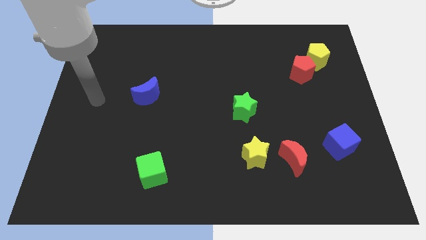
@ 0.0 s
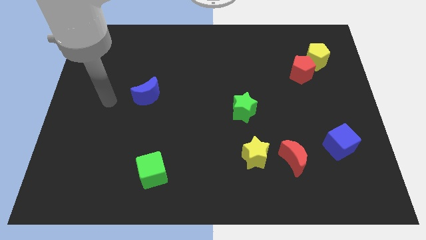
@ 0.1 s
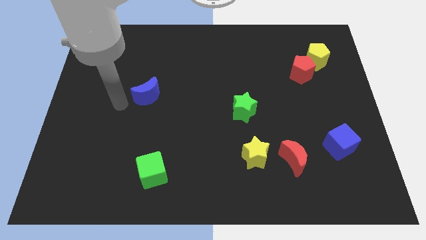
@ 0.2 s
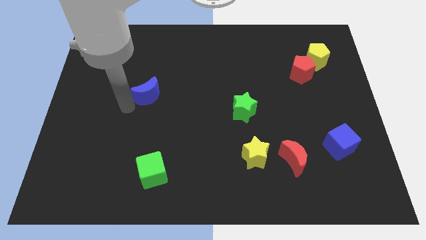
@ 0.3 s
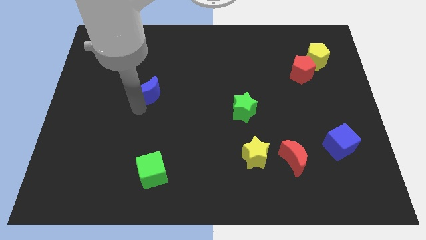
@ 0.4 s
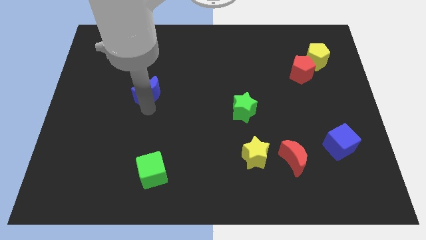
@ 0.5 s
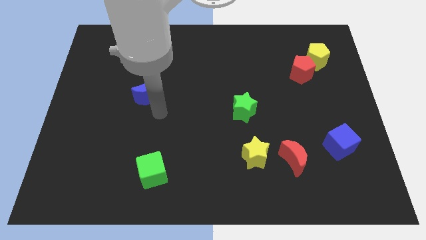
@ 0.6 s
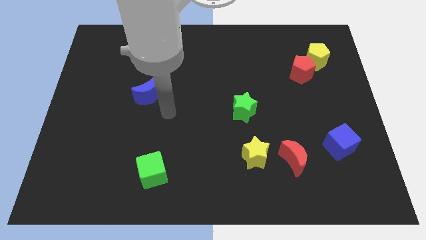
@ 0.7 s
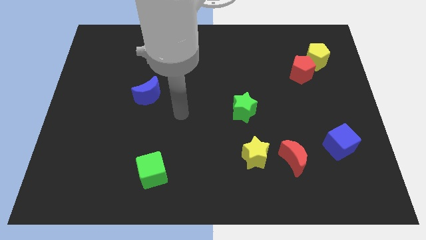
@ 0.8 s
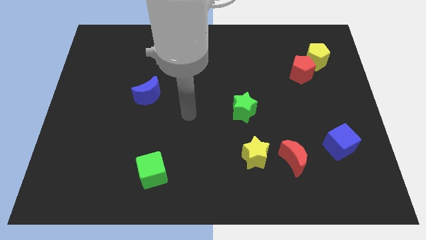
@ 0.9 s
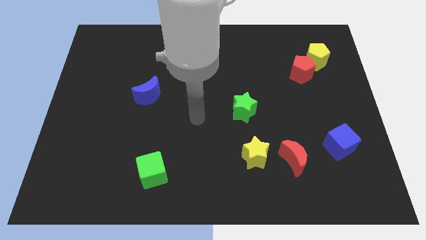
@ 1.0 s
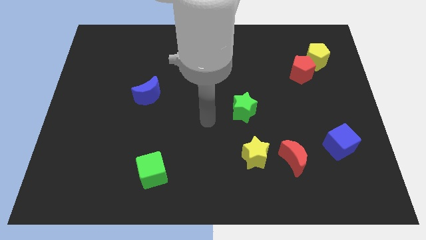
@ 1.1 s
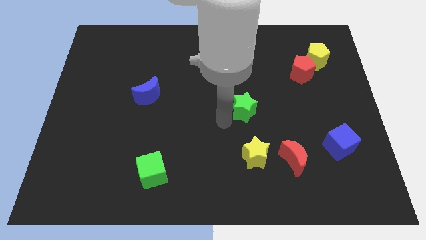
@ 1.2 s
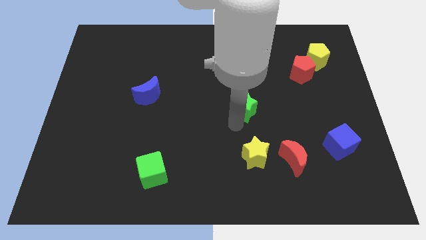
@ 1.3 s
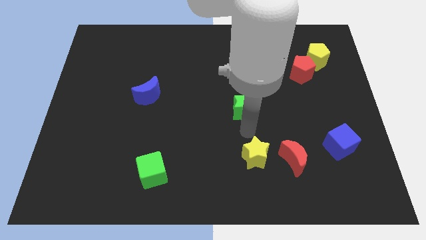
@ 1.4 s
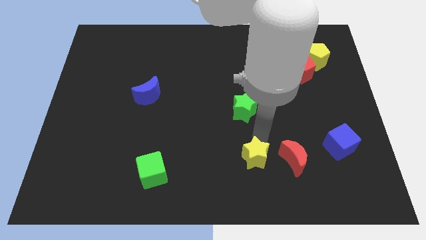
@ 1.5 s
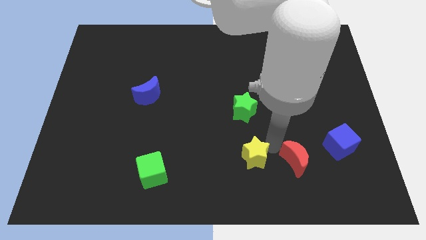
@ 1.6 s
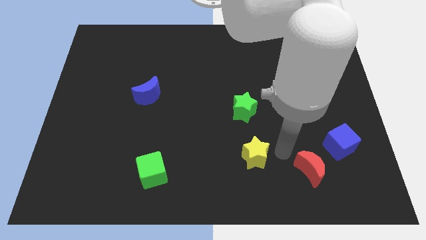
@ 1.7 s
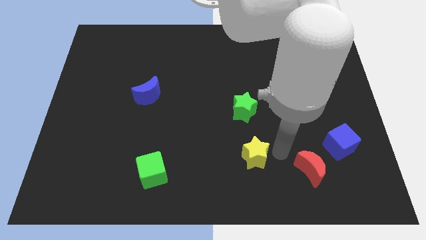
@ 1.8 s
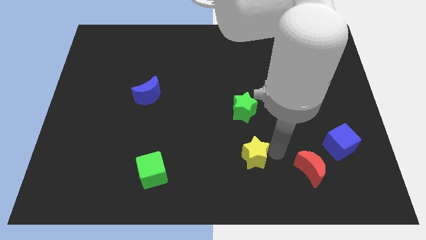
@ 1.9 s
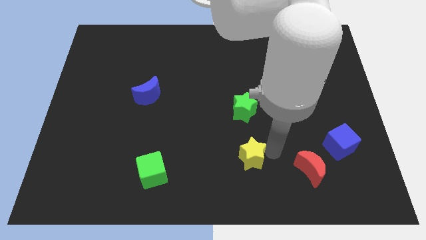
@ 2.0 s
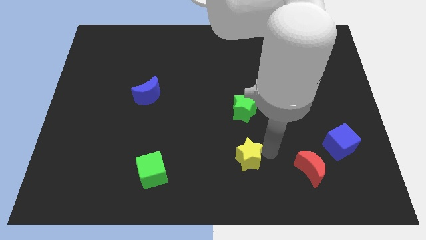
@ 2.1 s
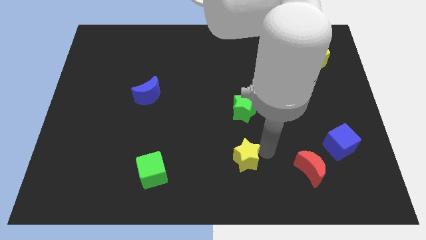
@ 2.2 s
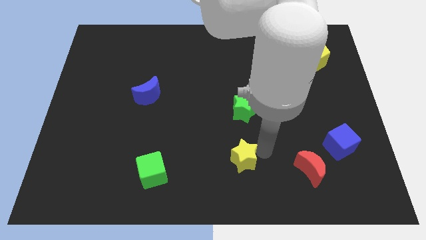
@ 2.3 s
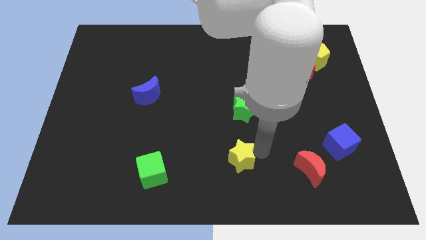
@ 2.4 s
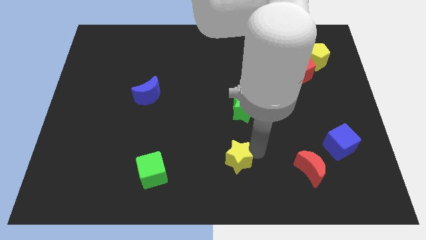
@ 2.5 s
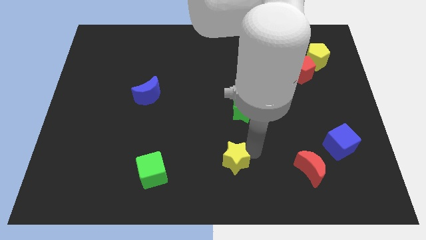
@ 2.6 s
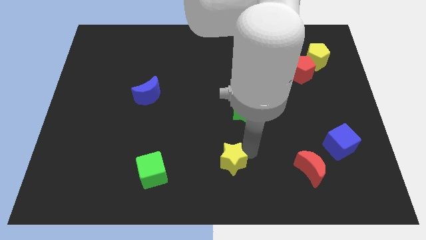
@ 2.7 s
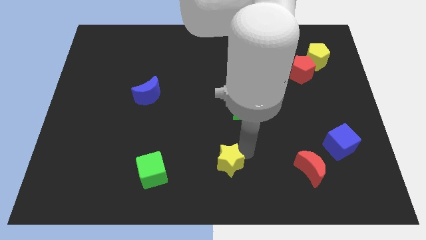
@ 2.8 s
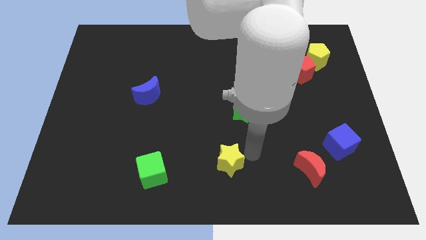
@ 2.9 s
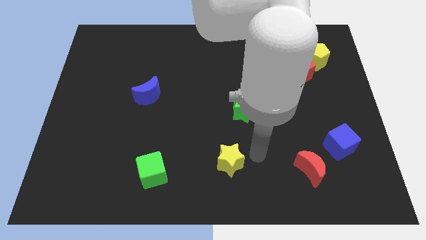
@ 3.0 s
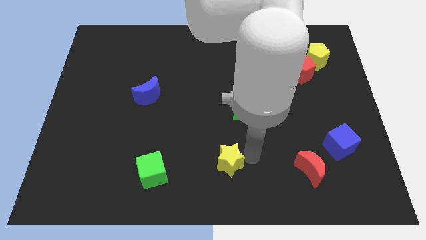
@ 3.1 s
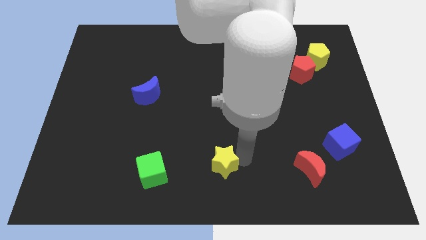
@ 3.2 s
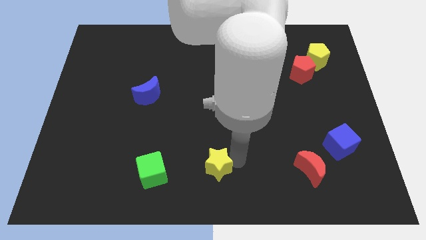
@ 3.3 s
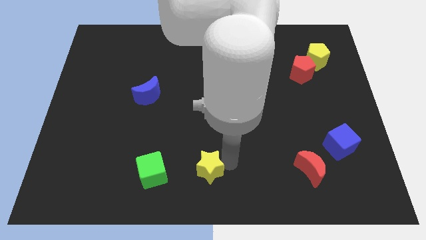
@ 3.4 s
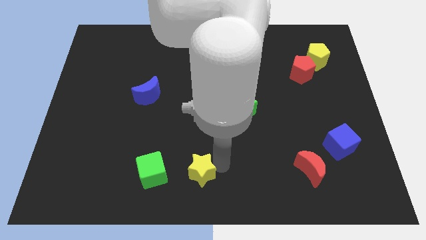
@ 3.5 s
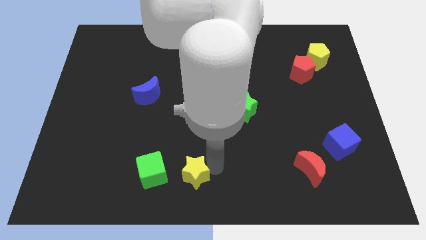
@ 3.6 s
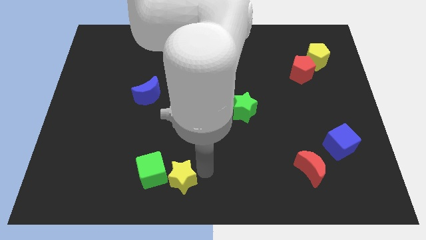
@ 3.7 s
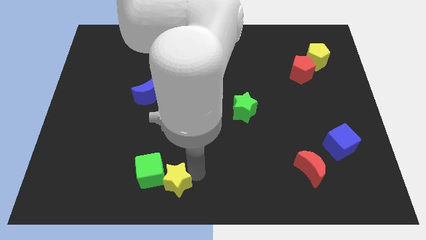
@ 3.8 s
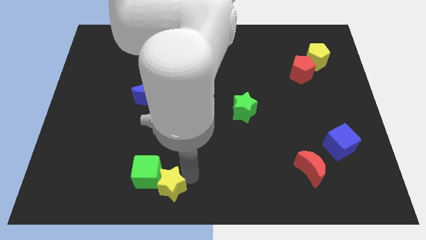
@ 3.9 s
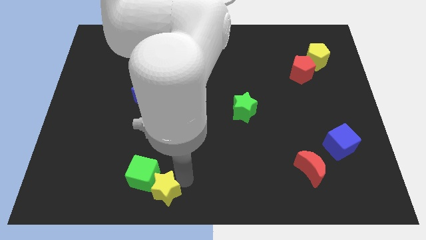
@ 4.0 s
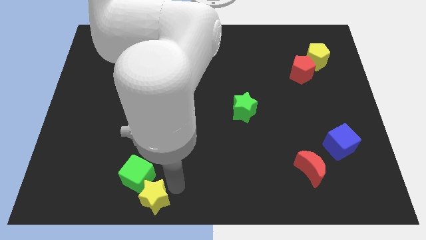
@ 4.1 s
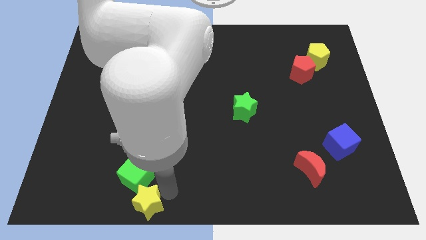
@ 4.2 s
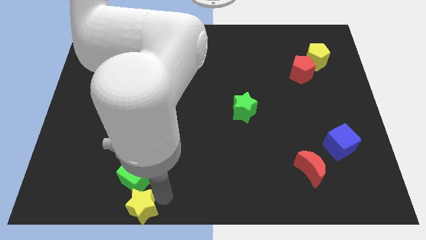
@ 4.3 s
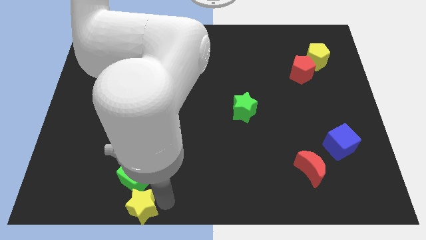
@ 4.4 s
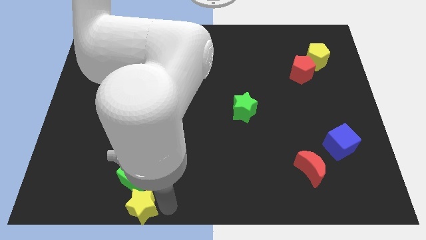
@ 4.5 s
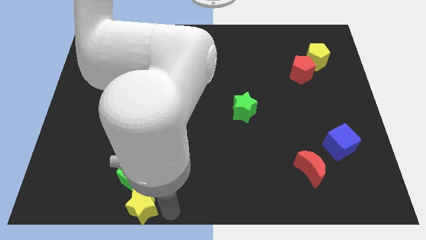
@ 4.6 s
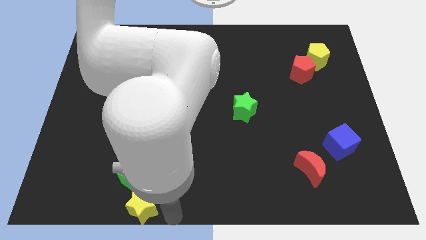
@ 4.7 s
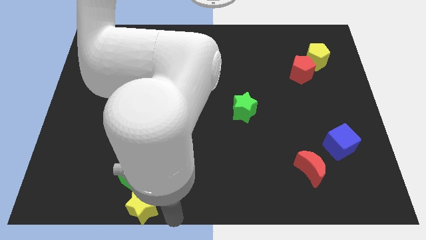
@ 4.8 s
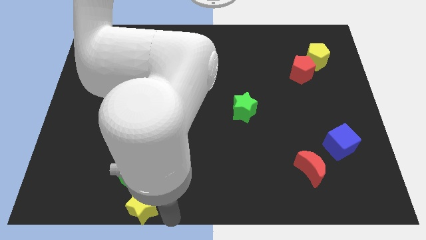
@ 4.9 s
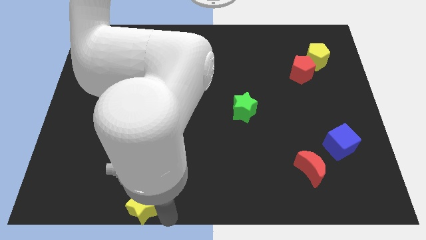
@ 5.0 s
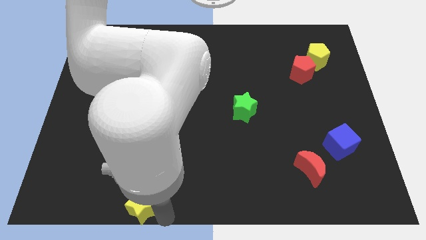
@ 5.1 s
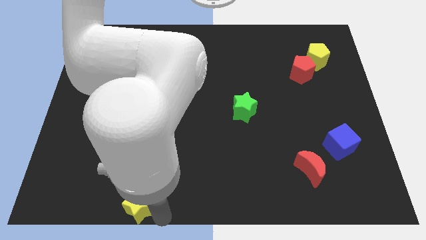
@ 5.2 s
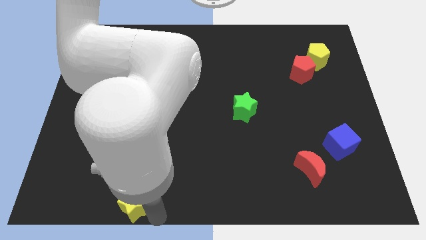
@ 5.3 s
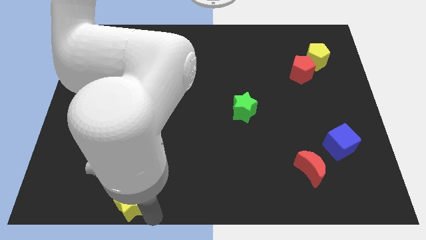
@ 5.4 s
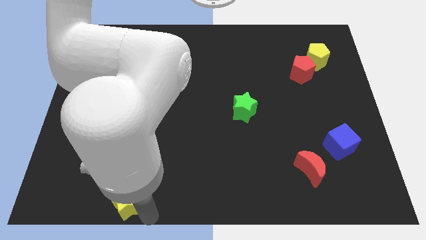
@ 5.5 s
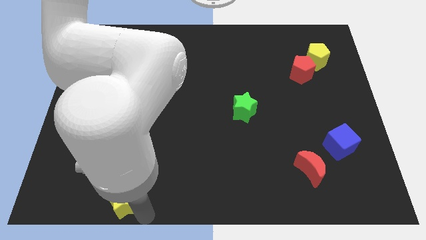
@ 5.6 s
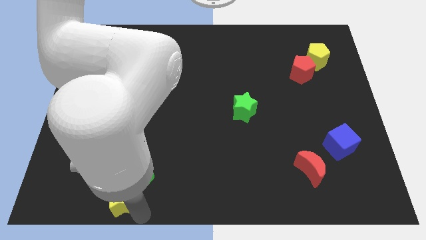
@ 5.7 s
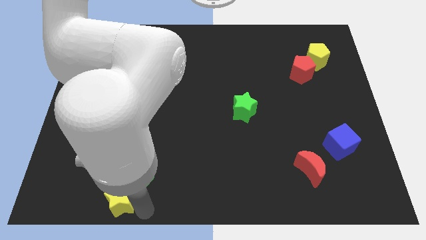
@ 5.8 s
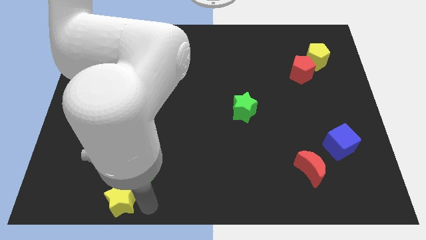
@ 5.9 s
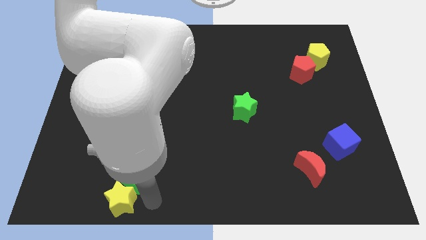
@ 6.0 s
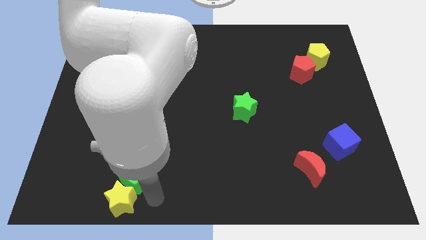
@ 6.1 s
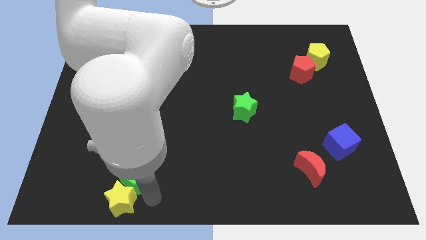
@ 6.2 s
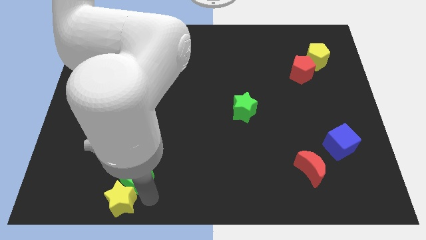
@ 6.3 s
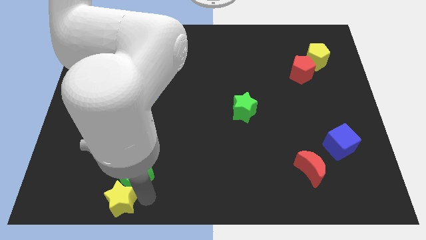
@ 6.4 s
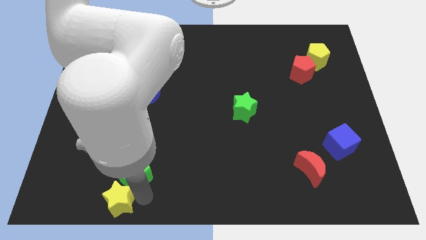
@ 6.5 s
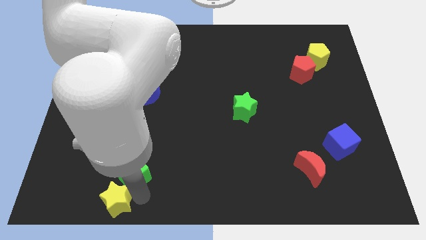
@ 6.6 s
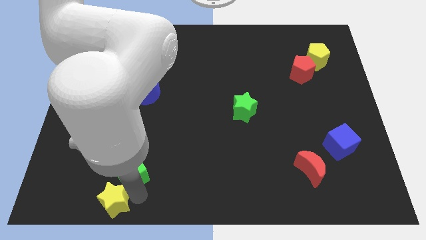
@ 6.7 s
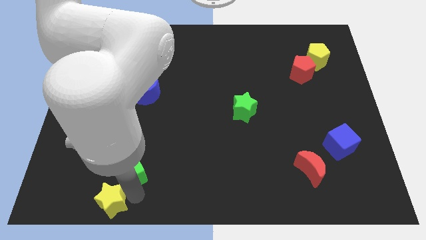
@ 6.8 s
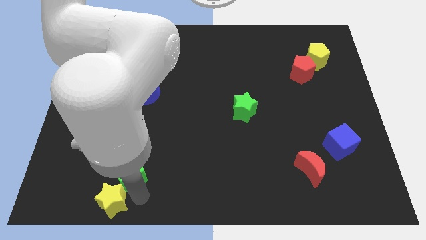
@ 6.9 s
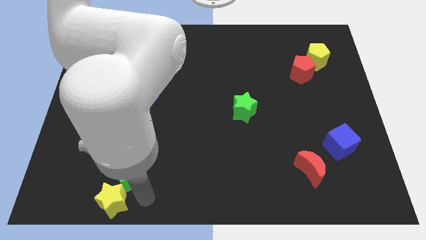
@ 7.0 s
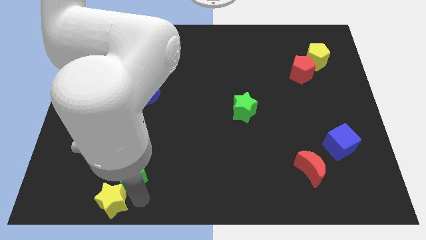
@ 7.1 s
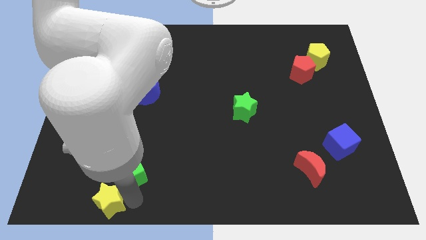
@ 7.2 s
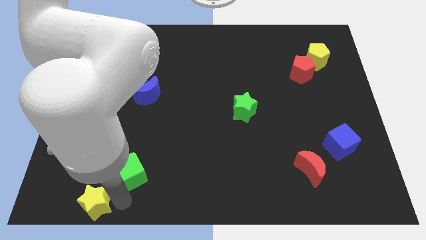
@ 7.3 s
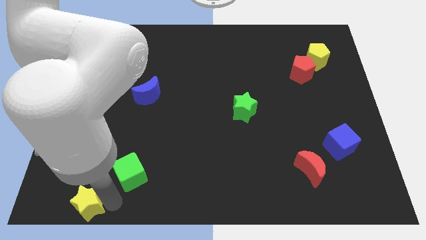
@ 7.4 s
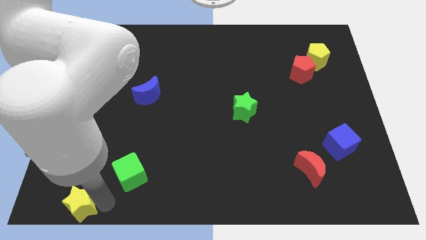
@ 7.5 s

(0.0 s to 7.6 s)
slide the yellow star to the bottom left corner
